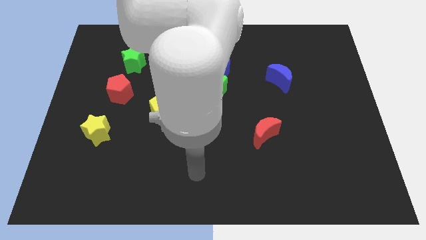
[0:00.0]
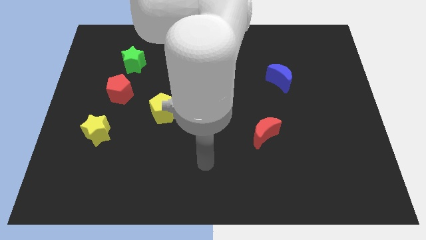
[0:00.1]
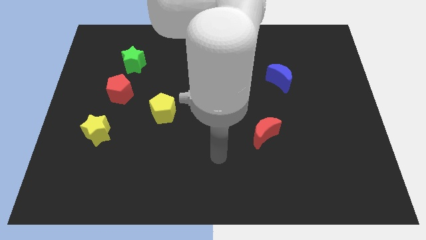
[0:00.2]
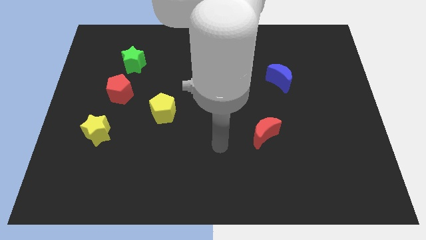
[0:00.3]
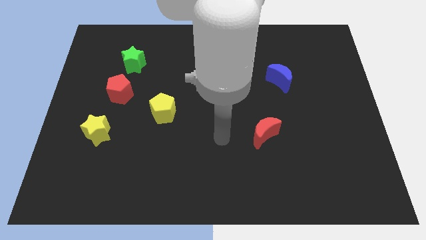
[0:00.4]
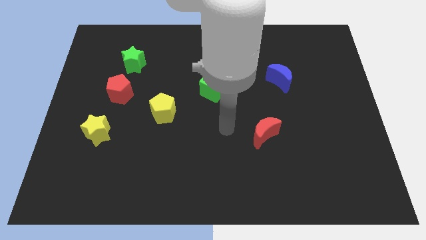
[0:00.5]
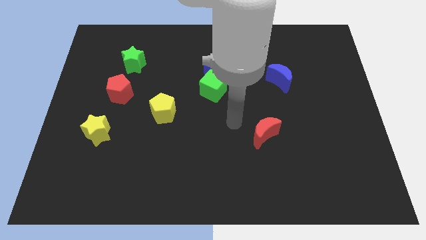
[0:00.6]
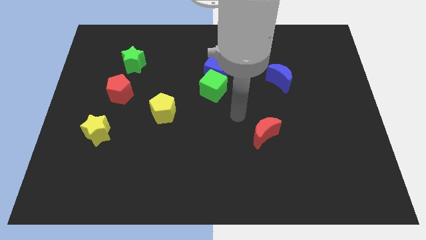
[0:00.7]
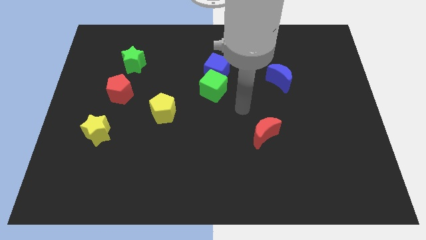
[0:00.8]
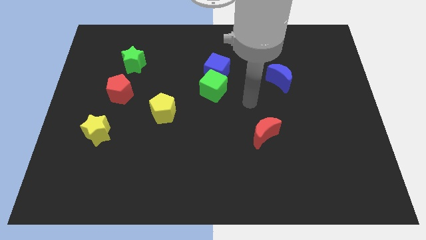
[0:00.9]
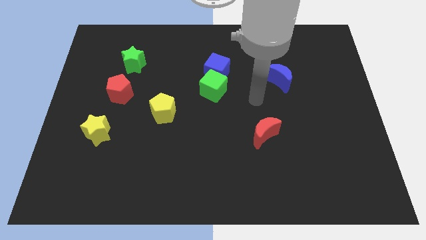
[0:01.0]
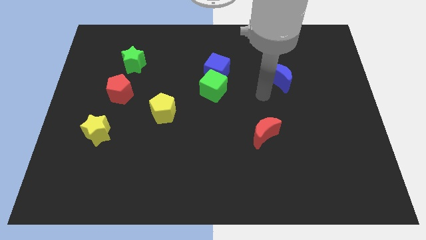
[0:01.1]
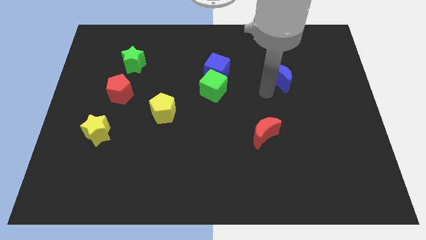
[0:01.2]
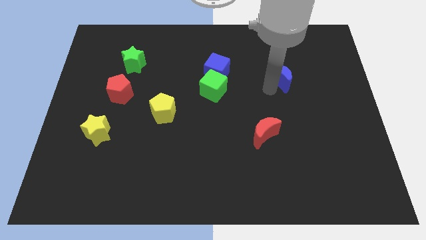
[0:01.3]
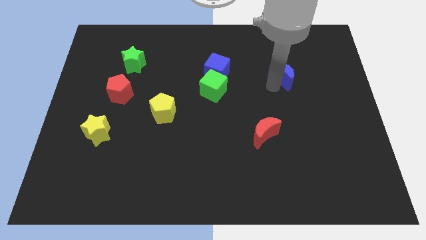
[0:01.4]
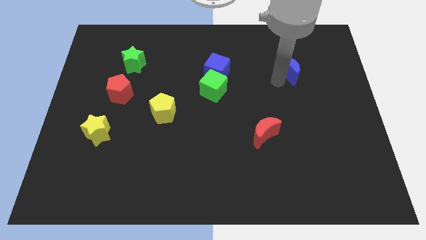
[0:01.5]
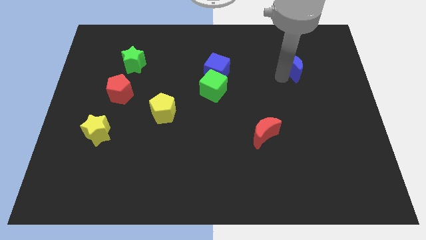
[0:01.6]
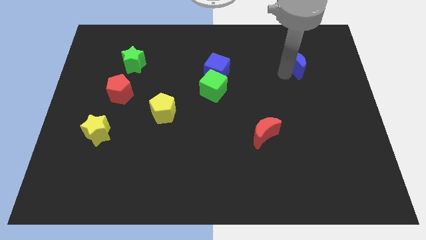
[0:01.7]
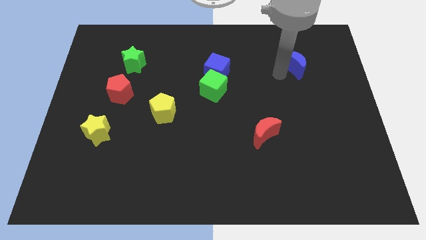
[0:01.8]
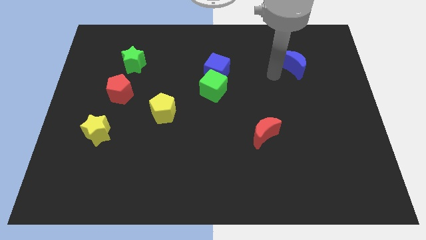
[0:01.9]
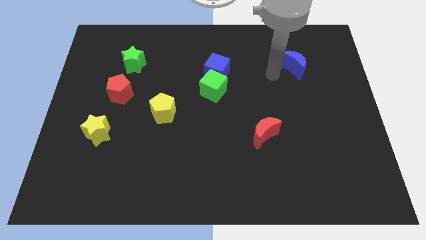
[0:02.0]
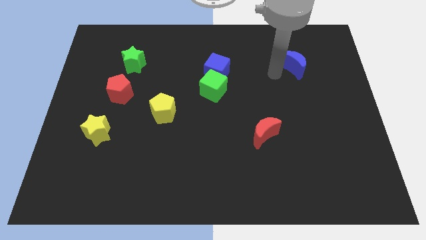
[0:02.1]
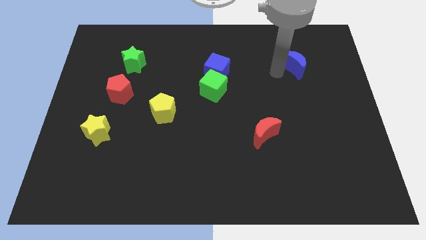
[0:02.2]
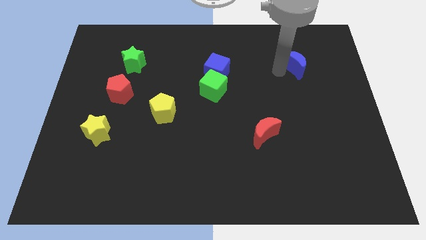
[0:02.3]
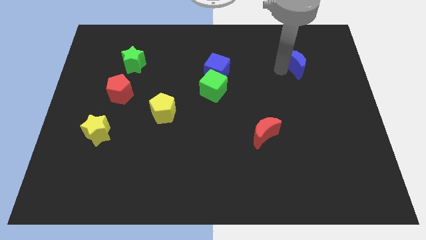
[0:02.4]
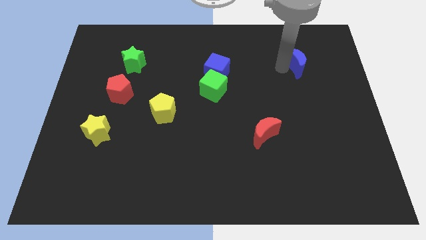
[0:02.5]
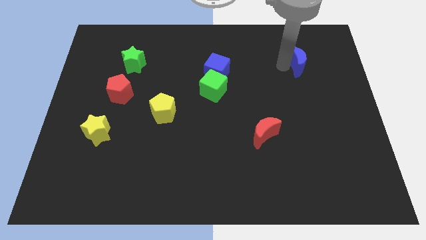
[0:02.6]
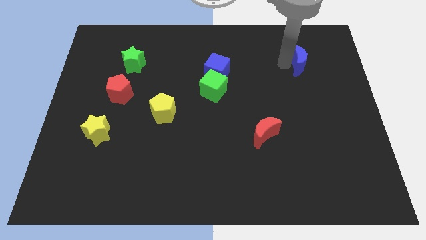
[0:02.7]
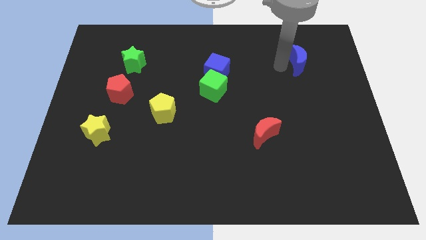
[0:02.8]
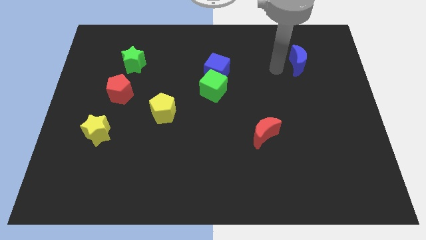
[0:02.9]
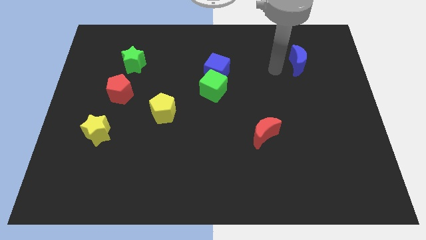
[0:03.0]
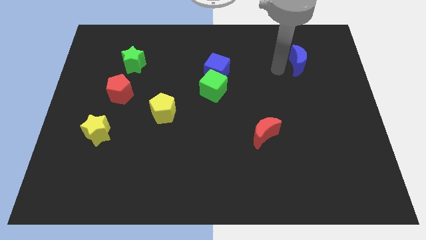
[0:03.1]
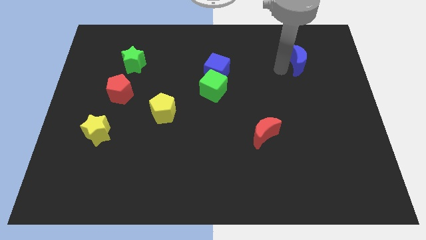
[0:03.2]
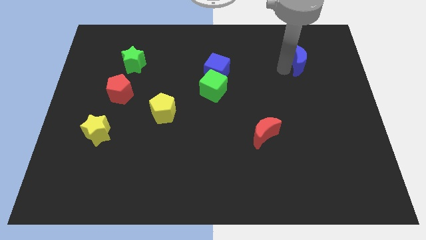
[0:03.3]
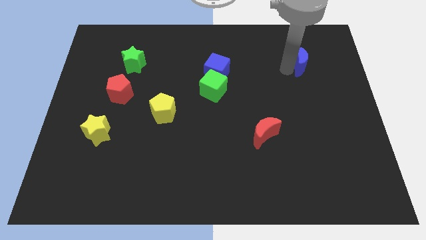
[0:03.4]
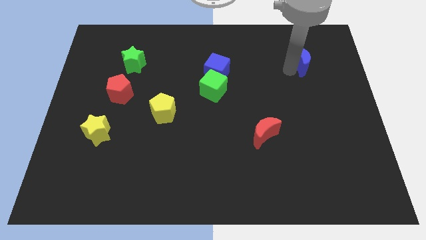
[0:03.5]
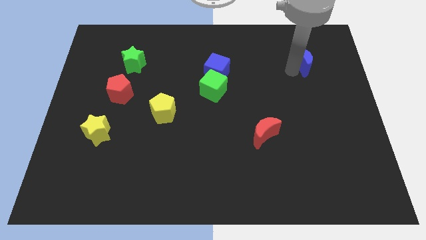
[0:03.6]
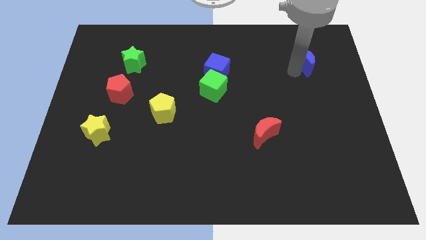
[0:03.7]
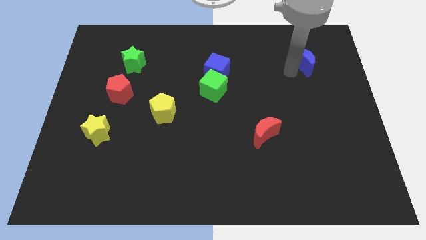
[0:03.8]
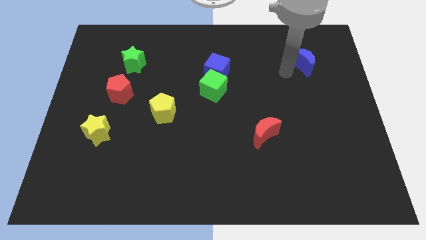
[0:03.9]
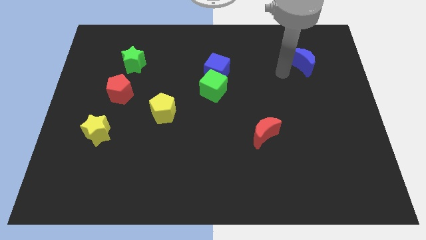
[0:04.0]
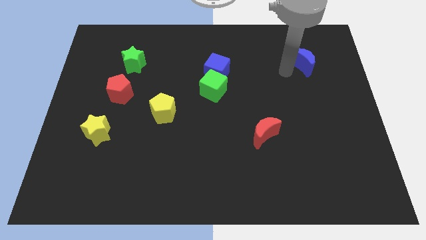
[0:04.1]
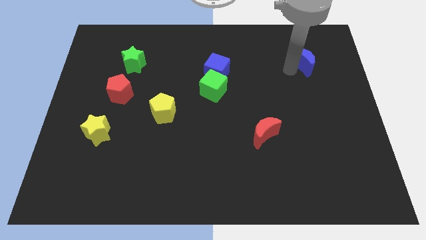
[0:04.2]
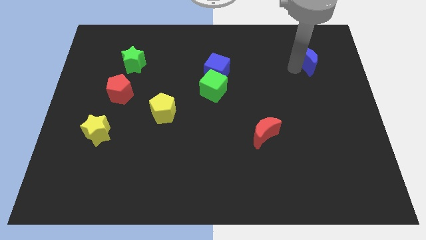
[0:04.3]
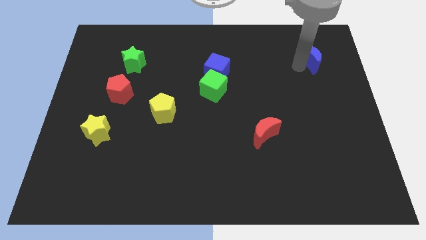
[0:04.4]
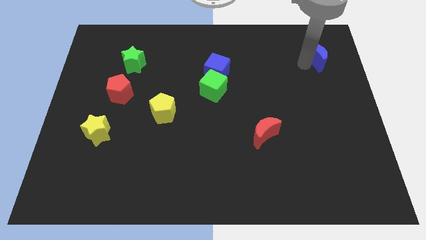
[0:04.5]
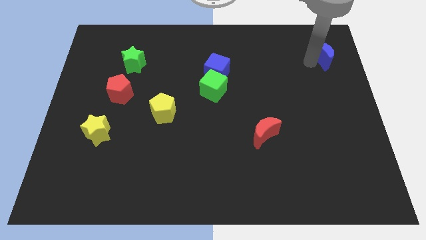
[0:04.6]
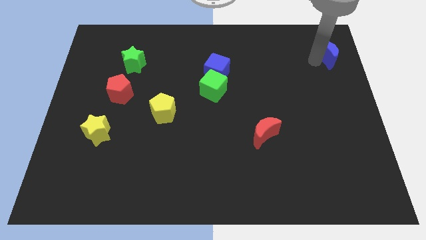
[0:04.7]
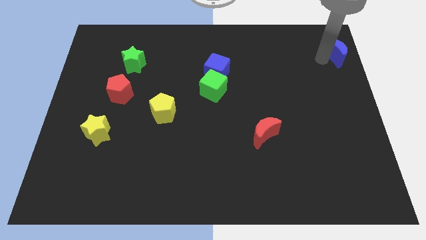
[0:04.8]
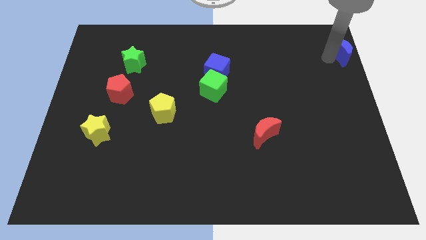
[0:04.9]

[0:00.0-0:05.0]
put the blue moon to the top right
